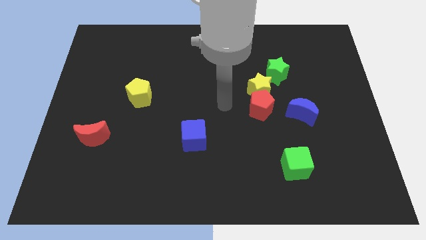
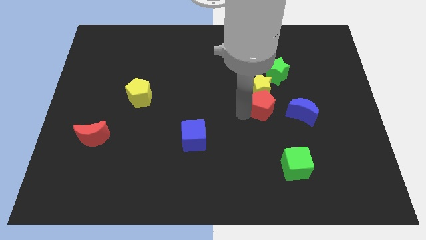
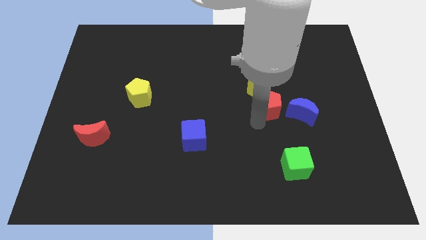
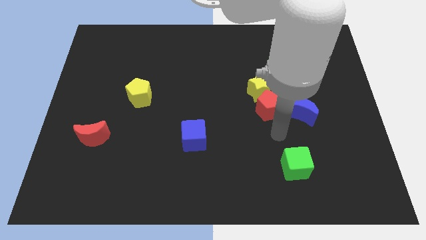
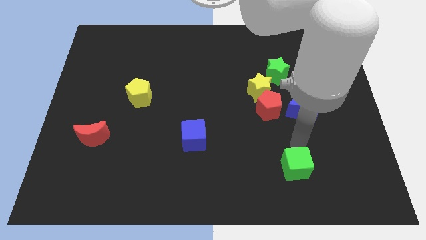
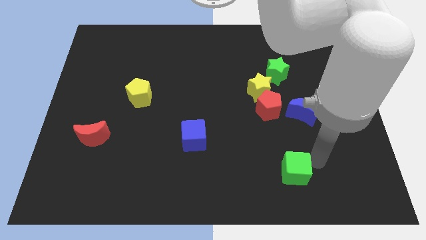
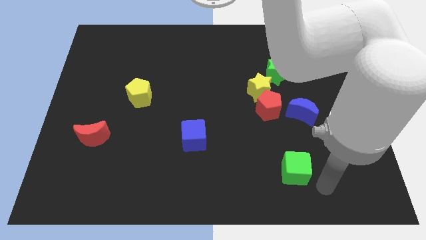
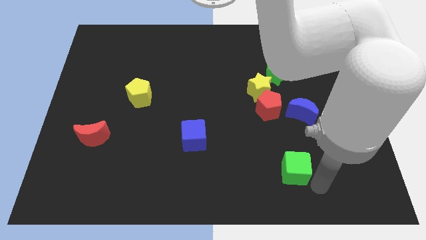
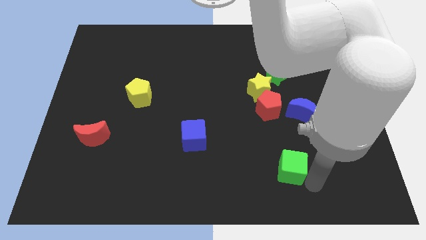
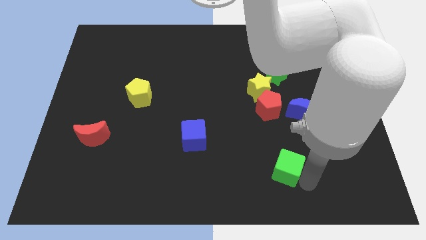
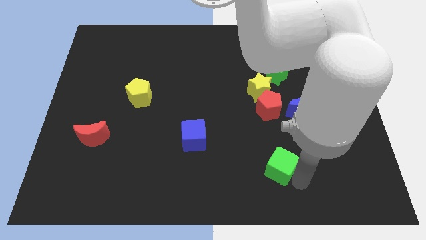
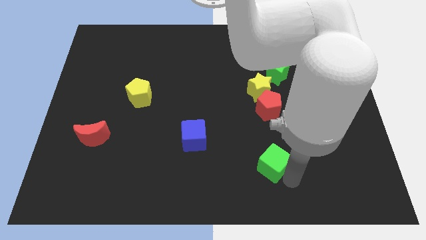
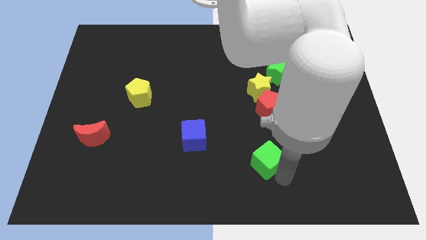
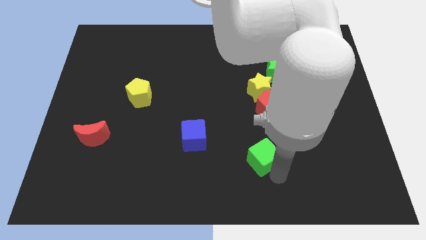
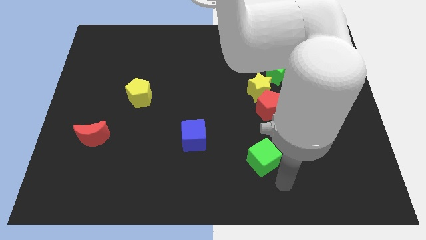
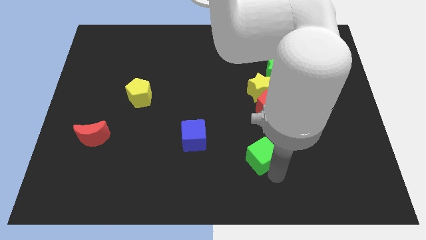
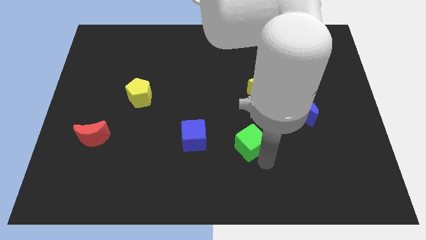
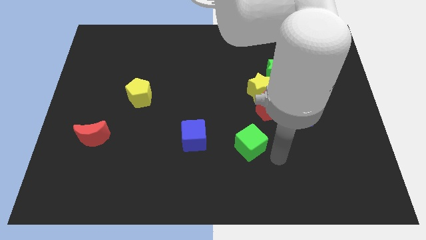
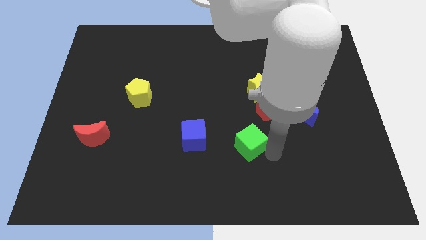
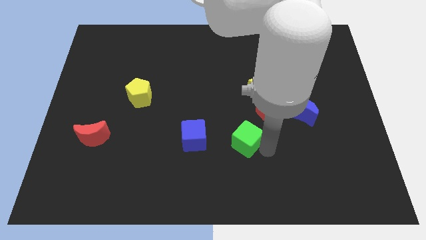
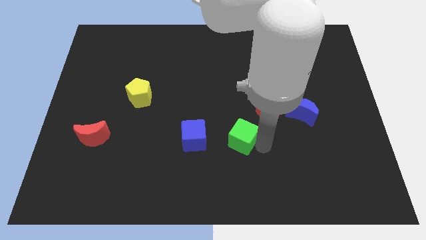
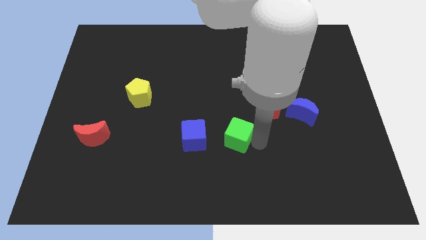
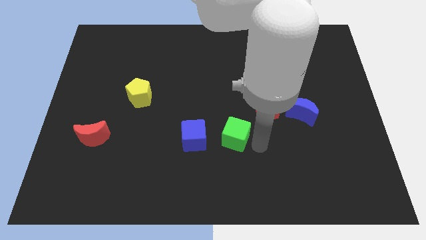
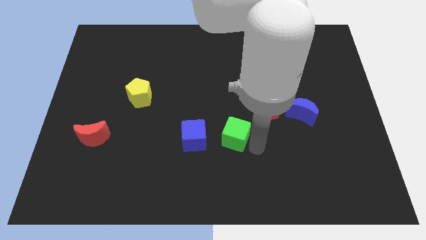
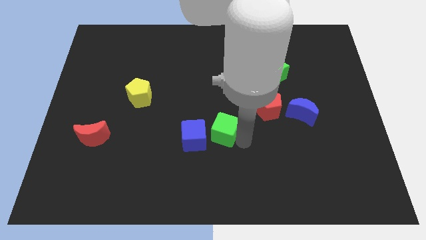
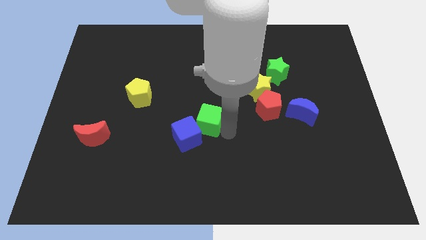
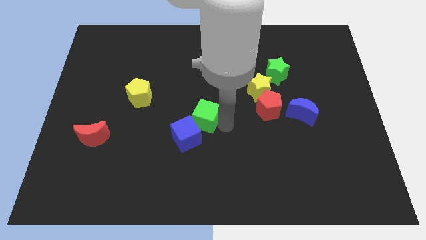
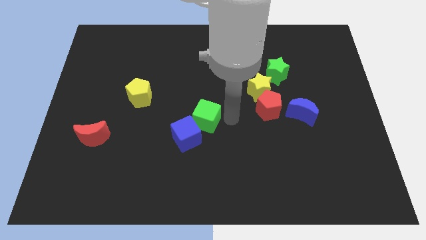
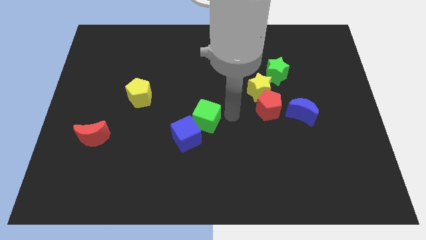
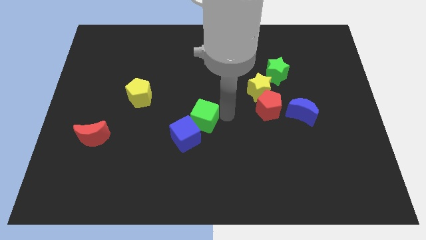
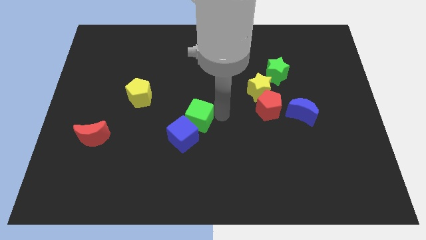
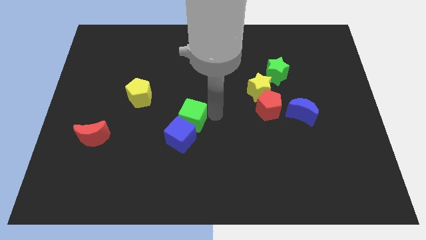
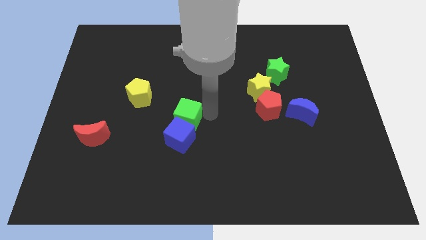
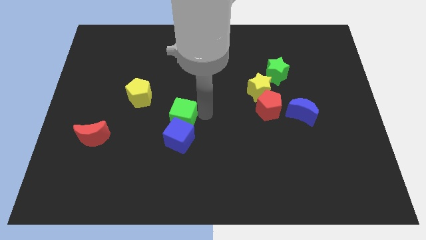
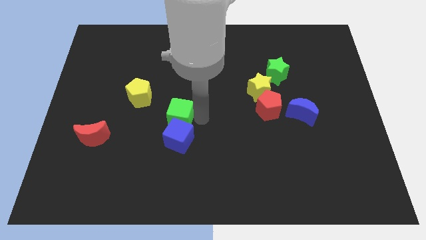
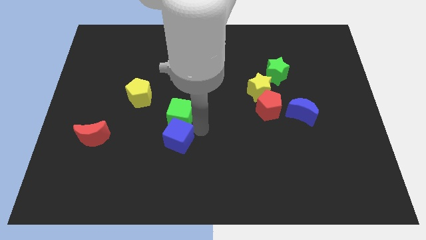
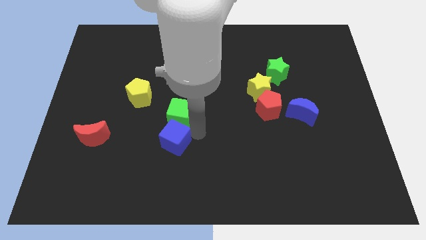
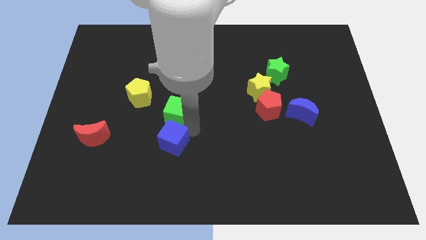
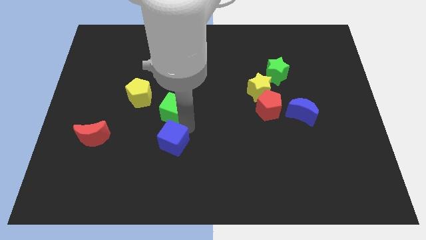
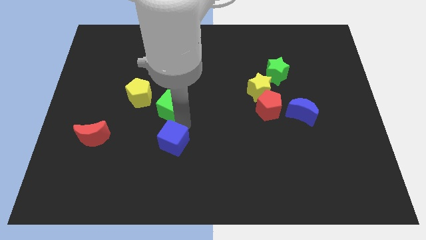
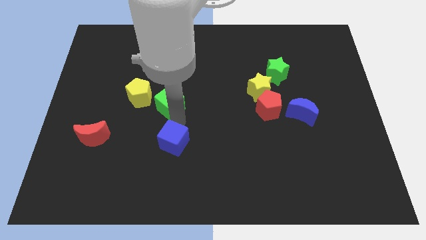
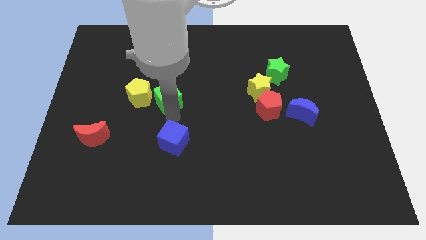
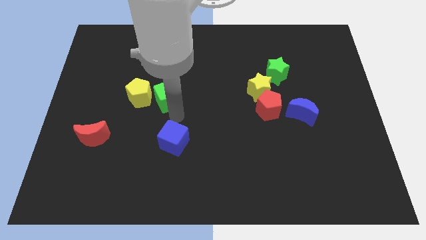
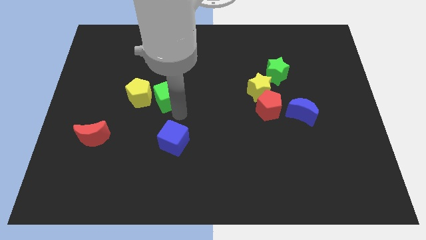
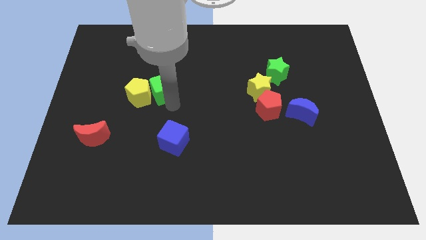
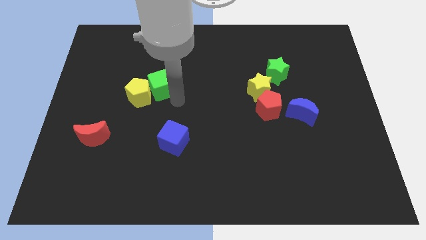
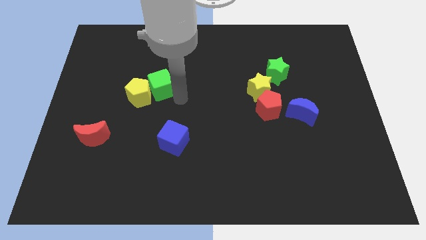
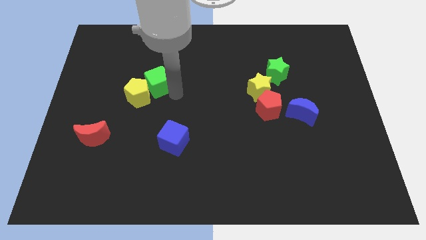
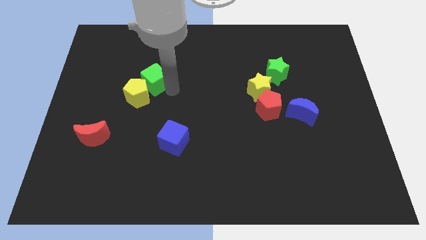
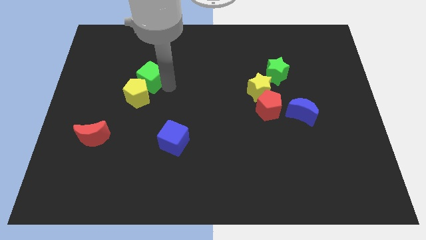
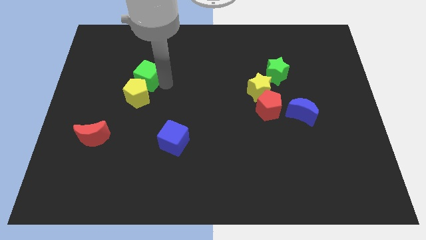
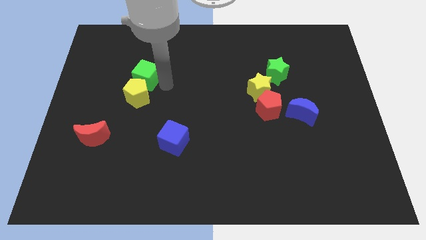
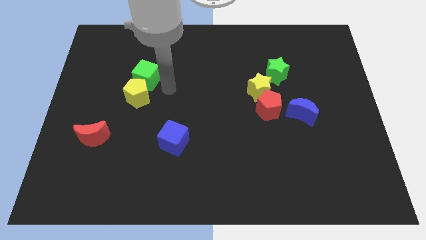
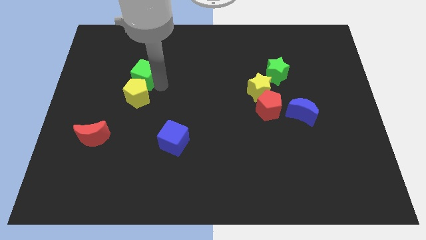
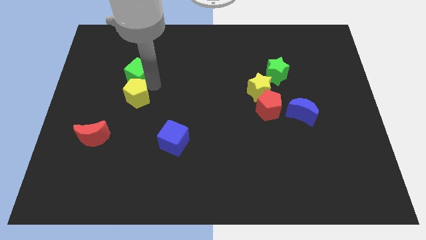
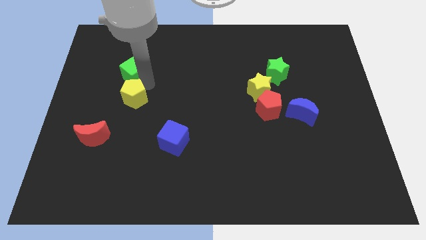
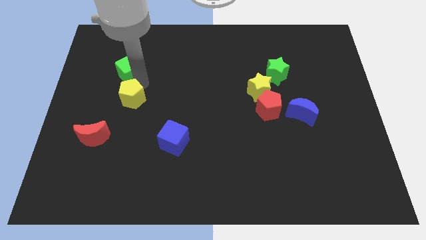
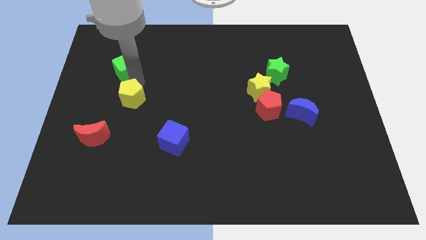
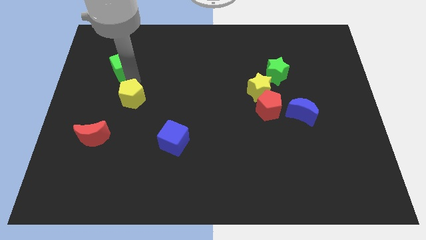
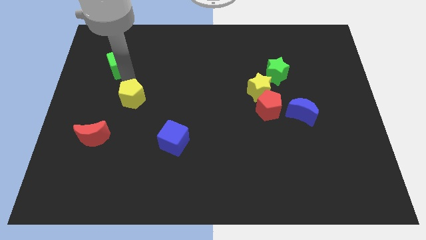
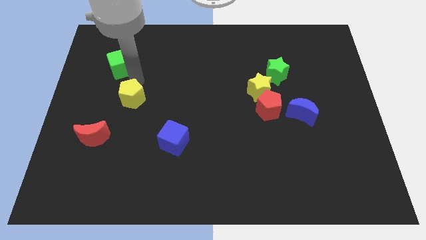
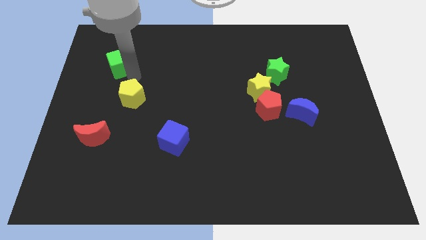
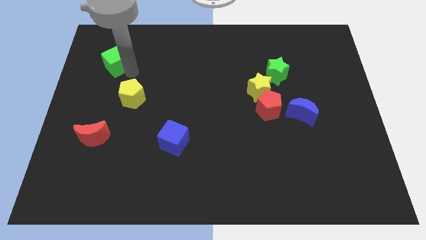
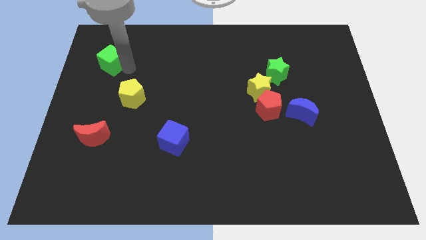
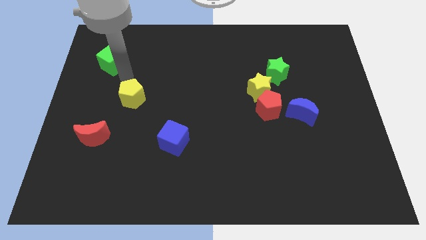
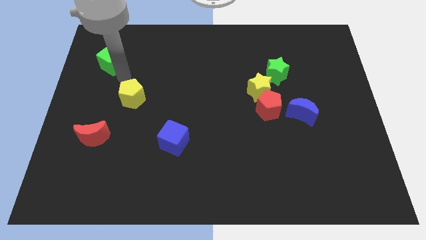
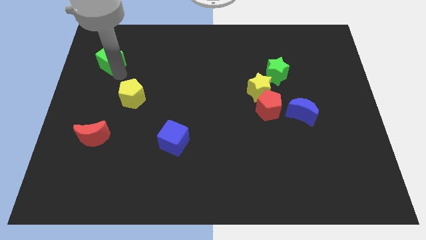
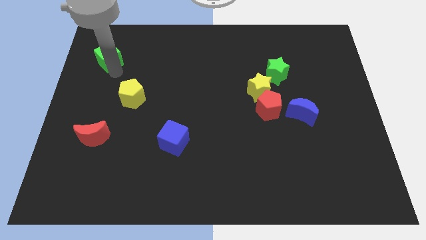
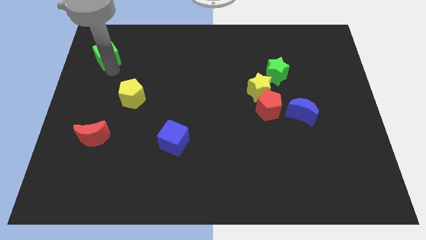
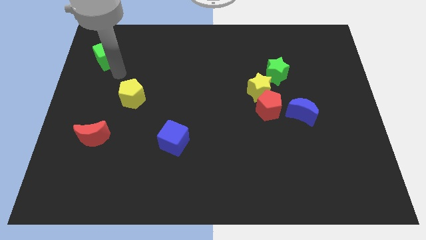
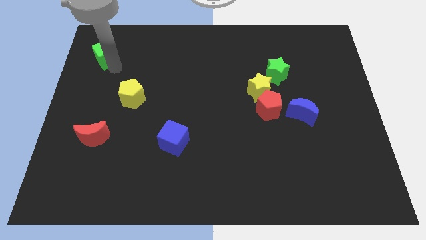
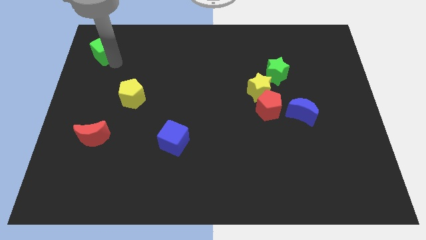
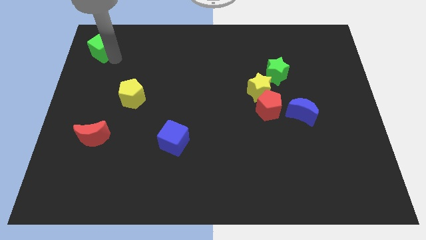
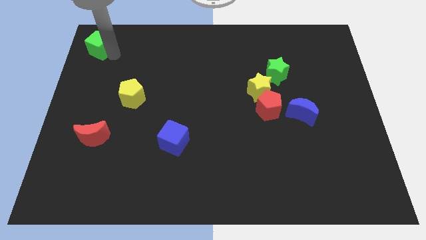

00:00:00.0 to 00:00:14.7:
push the green cube to the top left of the board
